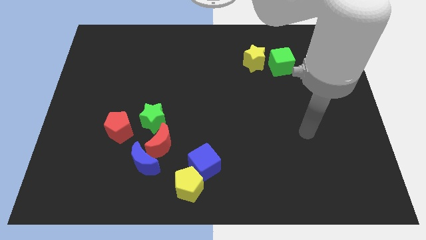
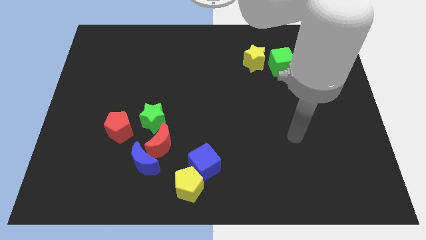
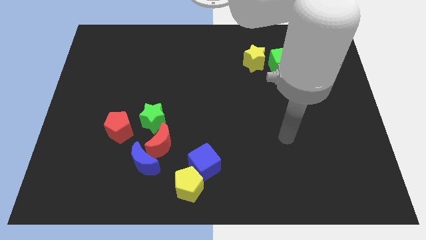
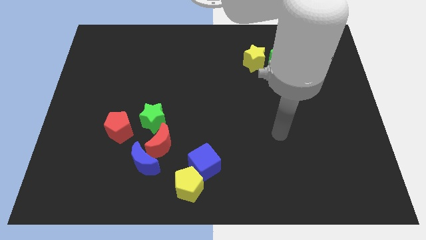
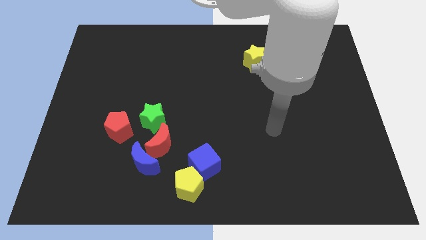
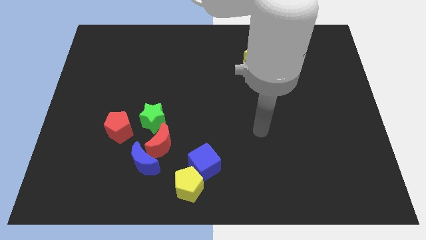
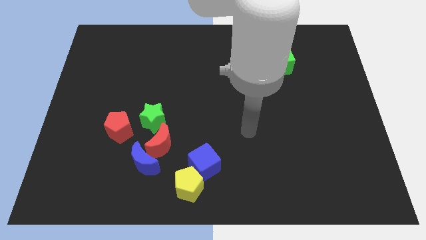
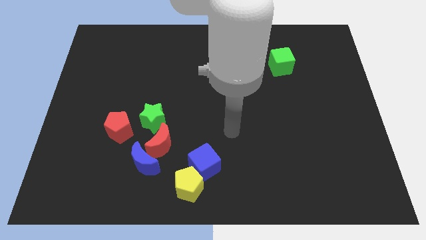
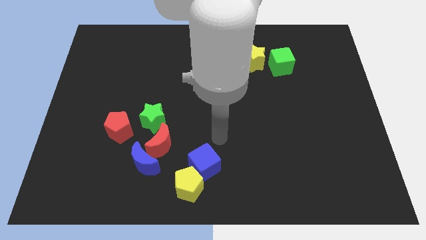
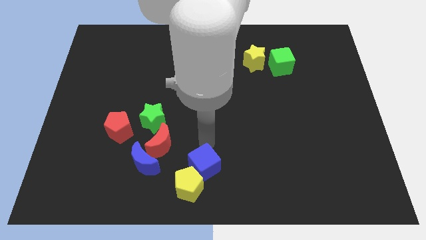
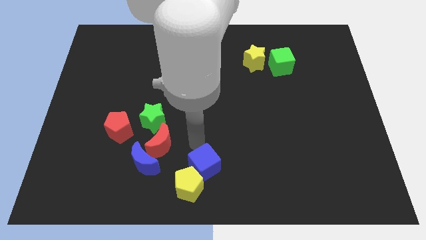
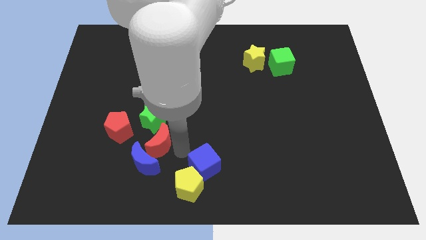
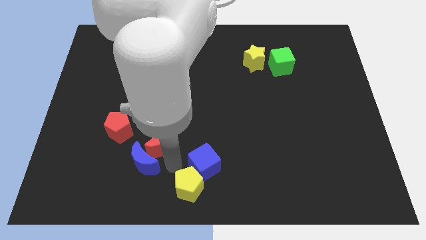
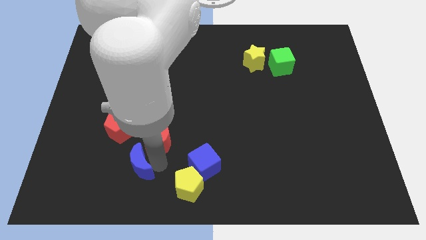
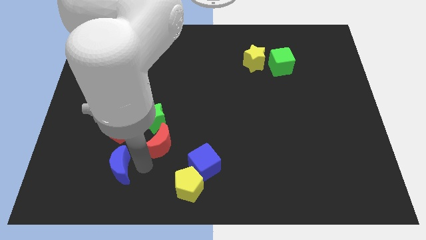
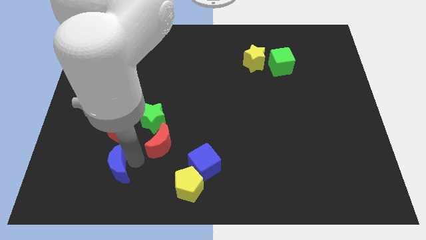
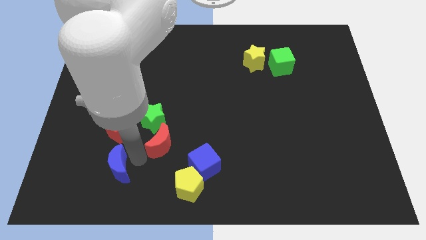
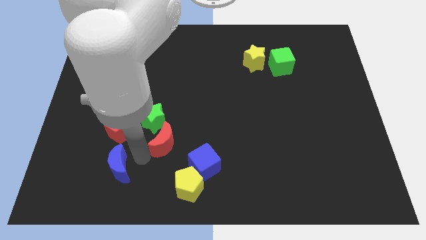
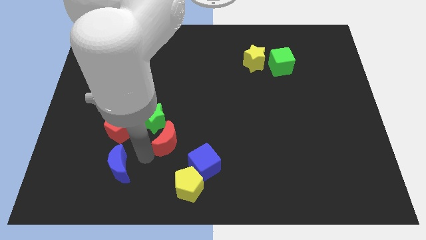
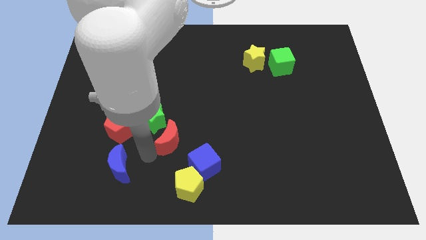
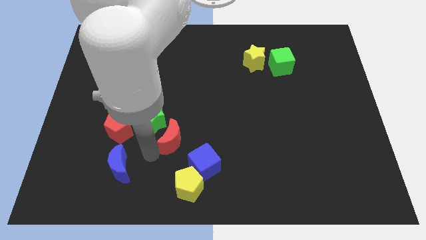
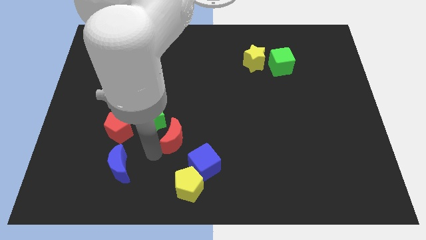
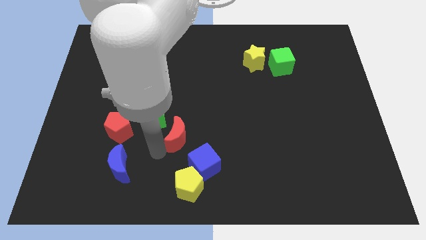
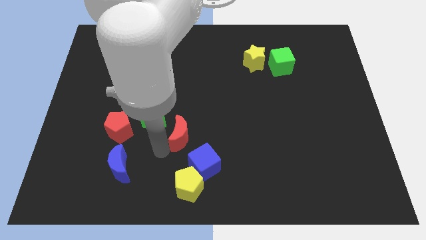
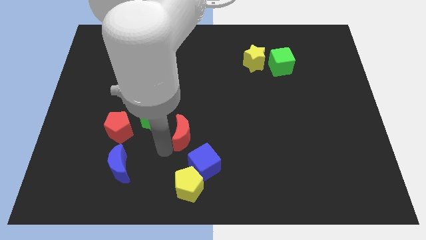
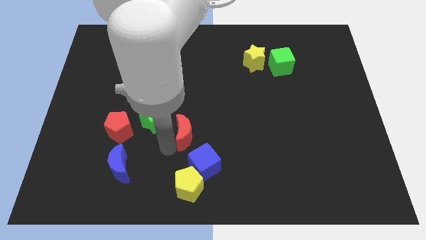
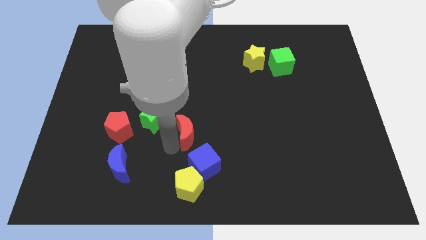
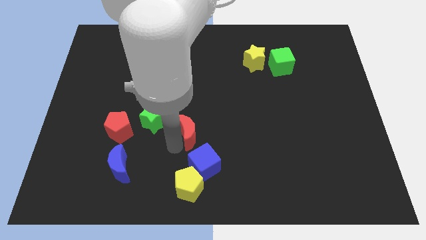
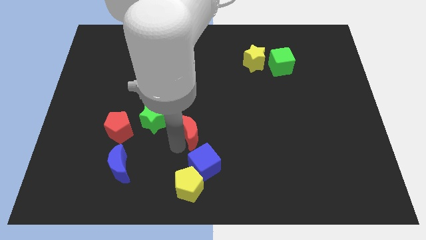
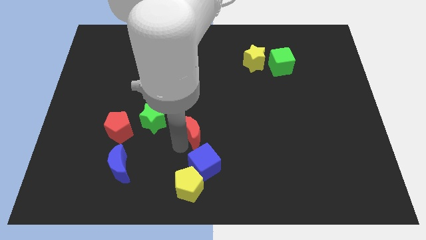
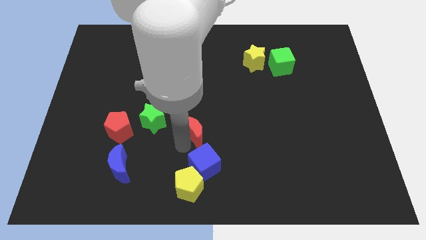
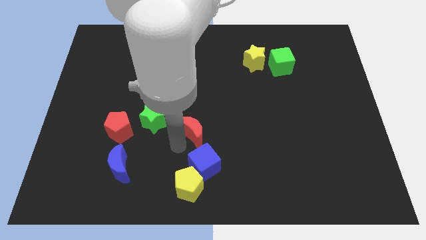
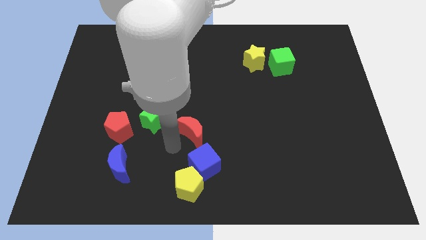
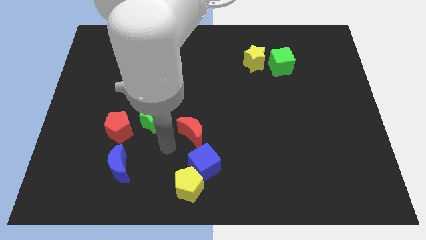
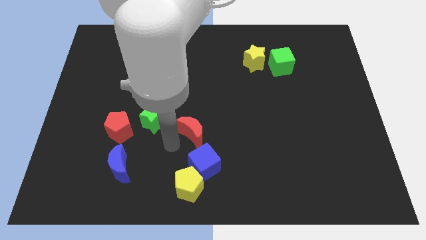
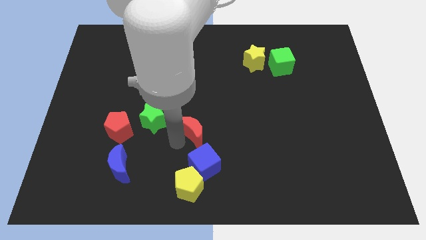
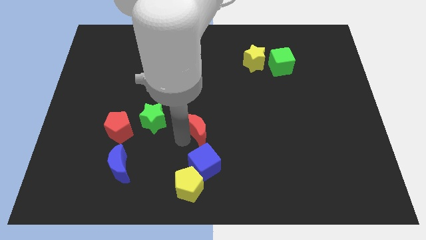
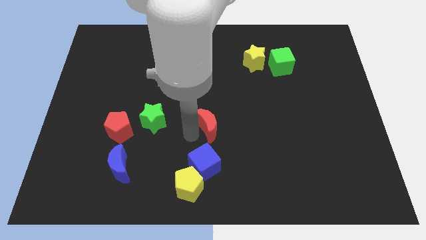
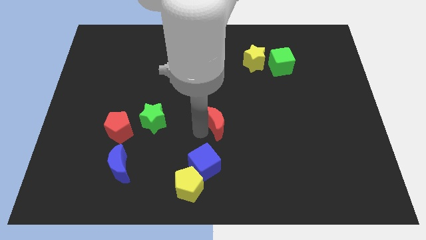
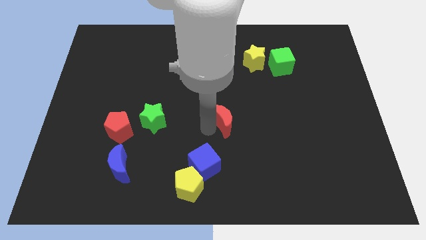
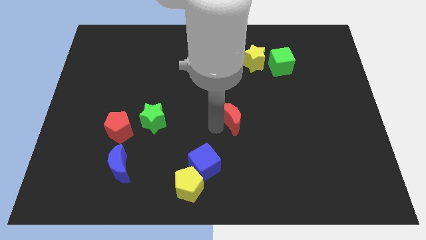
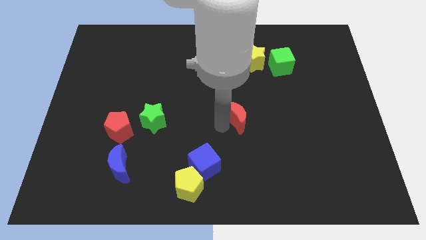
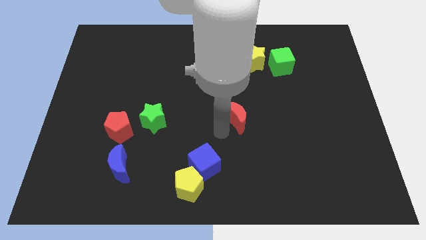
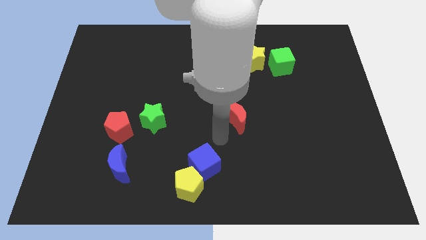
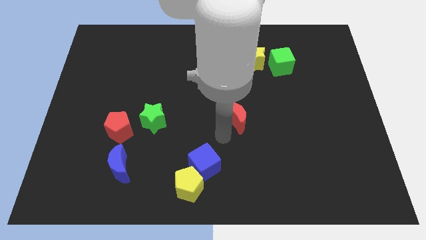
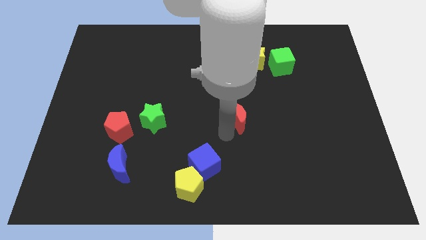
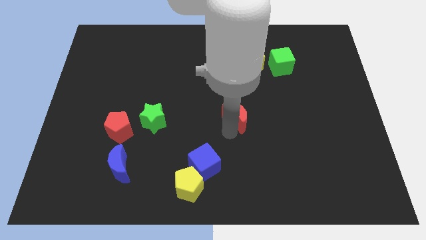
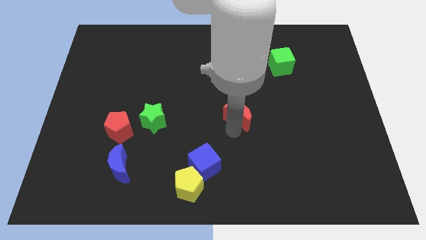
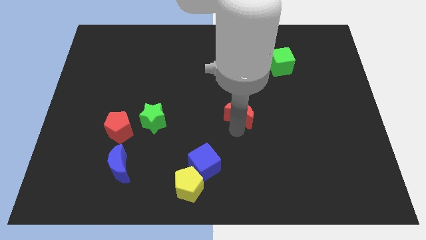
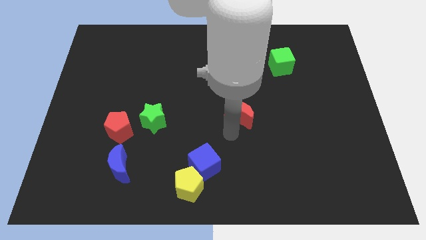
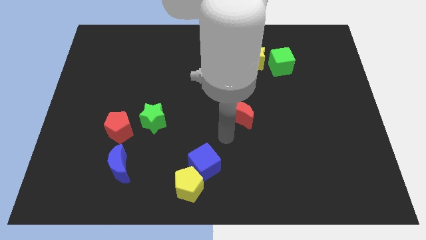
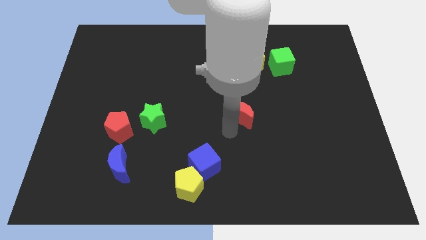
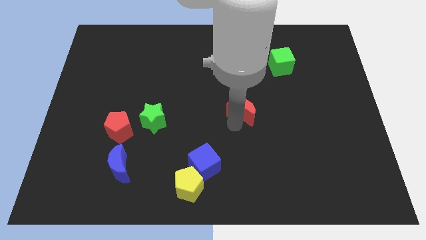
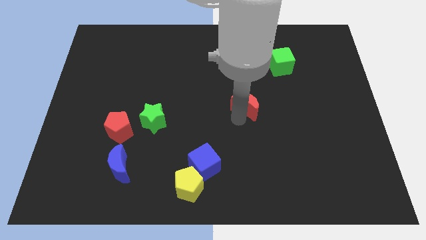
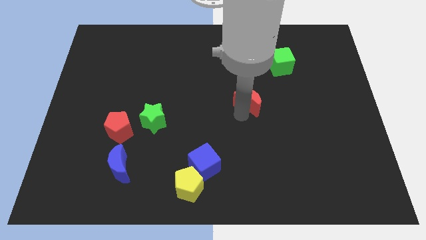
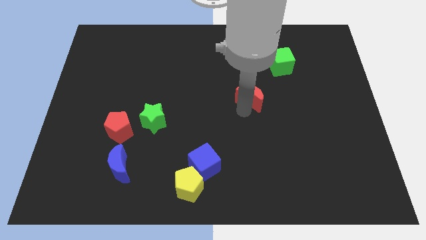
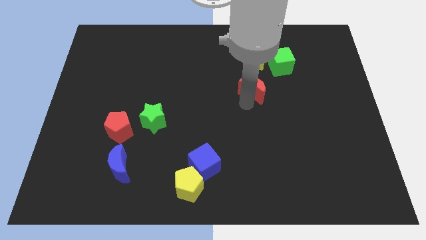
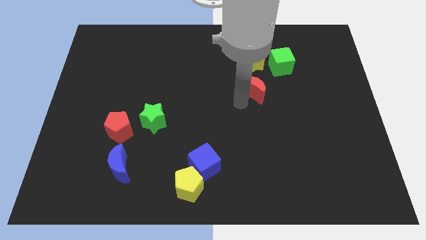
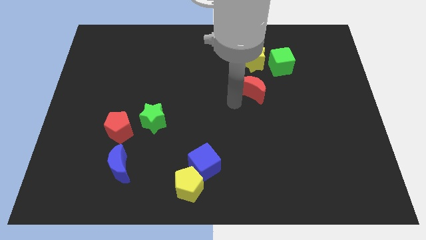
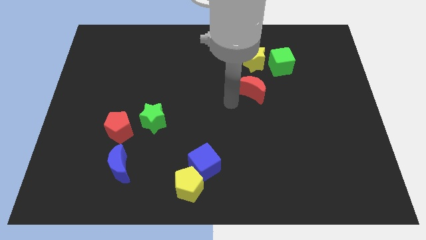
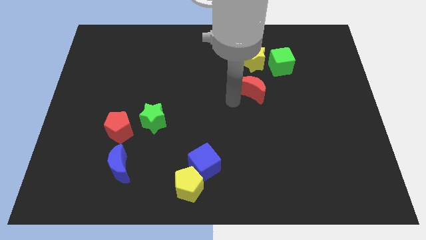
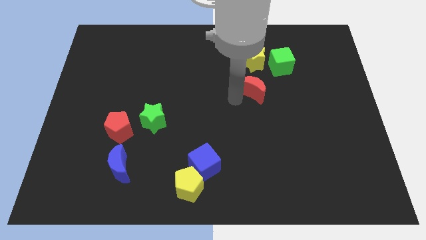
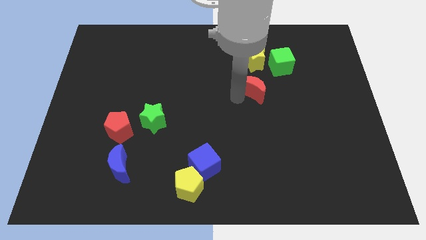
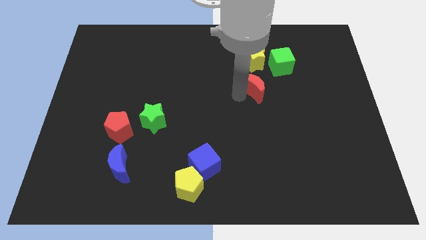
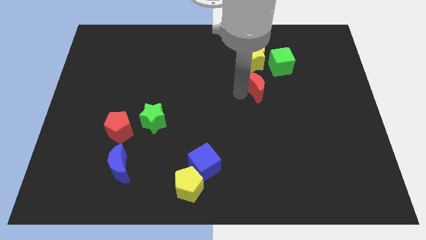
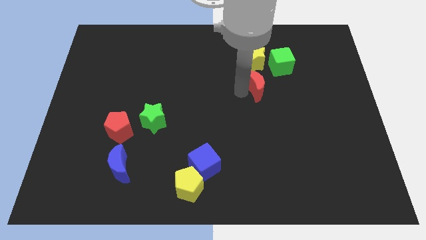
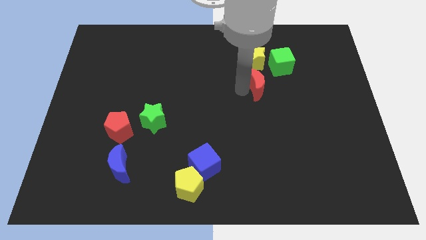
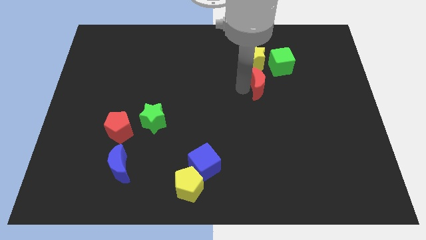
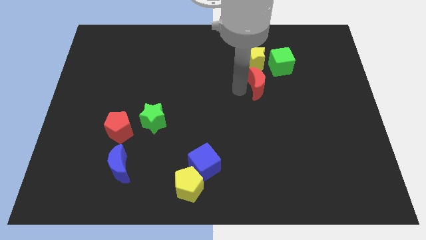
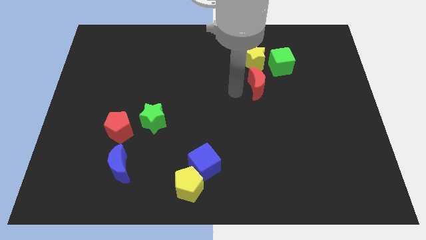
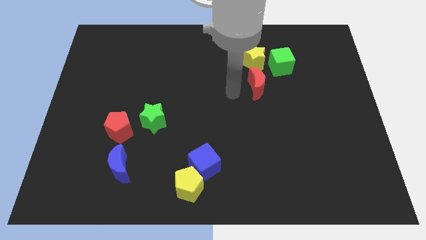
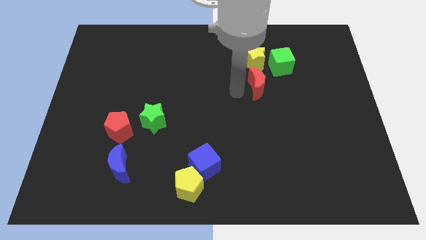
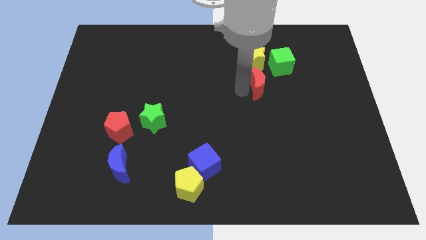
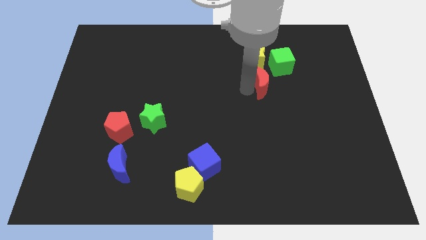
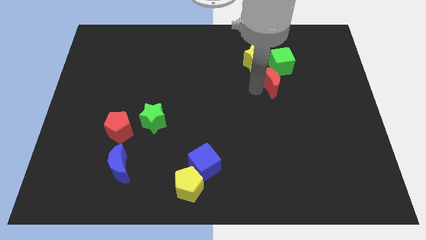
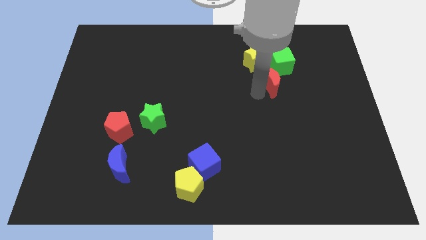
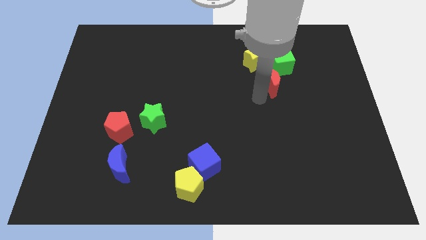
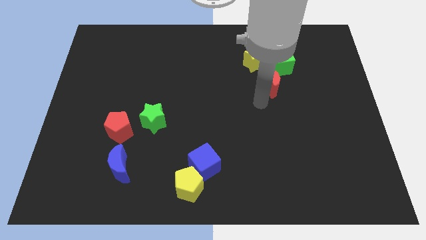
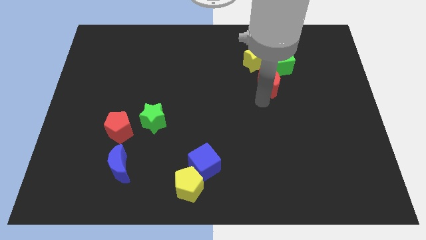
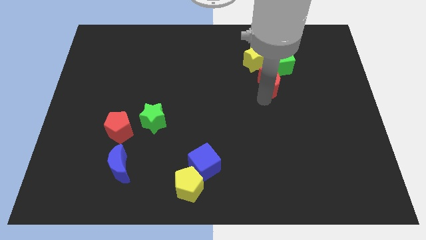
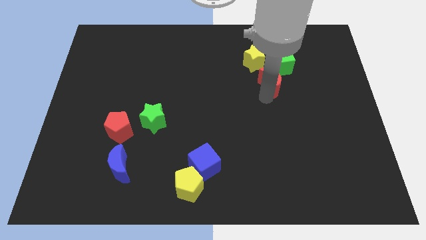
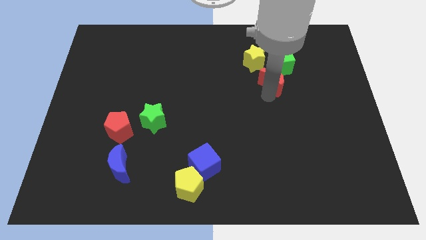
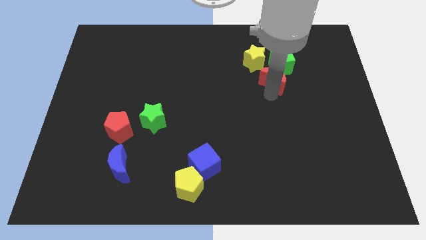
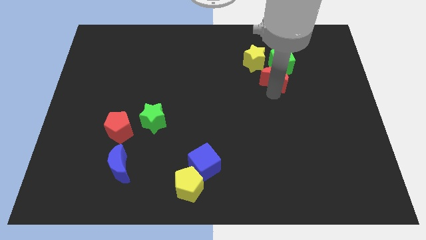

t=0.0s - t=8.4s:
put the red moon close to the green cube
